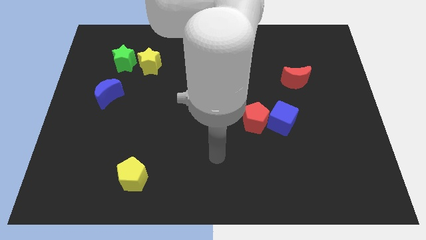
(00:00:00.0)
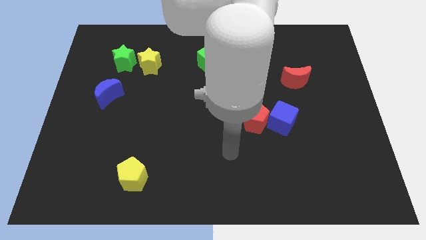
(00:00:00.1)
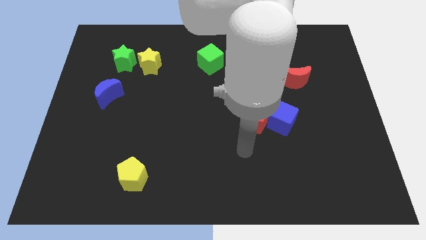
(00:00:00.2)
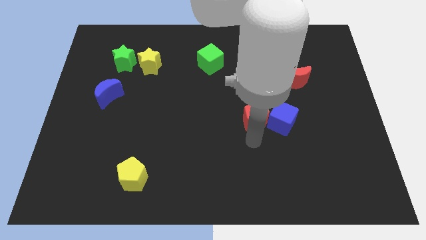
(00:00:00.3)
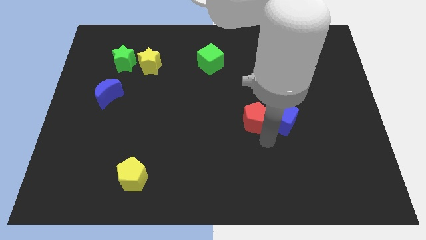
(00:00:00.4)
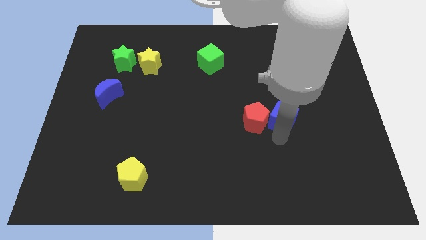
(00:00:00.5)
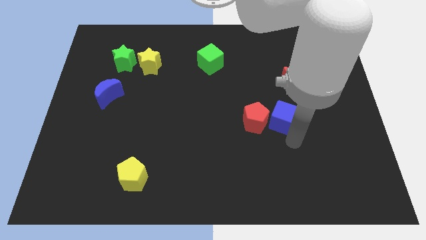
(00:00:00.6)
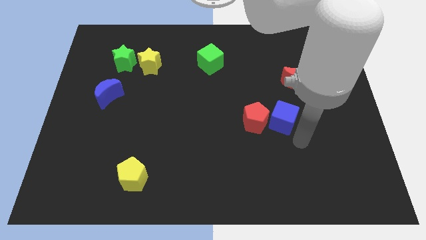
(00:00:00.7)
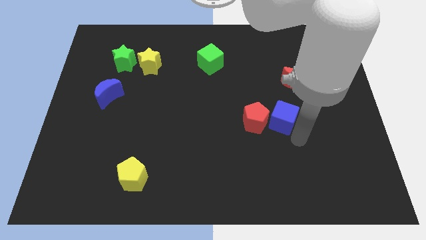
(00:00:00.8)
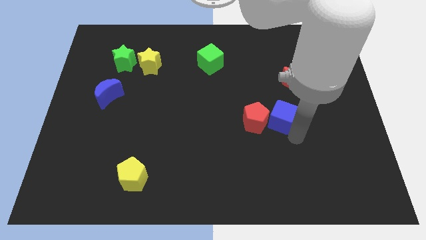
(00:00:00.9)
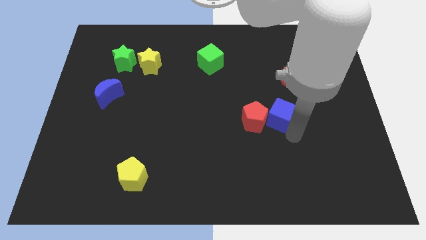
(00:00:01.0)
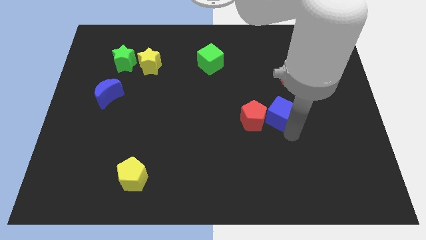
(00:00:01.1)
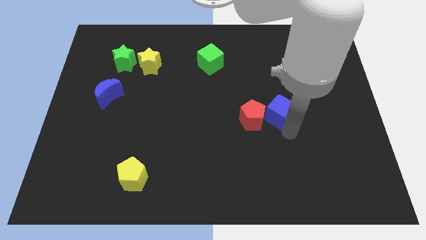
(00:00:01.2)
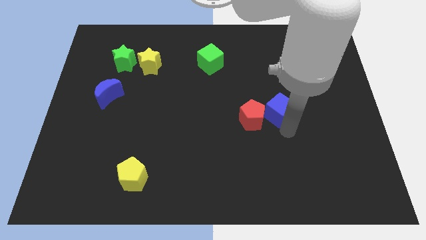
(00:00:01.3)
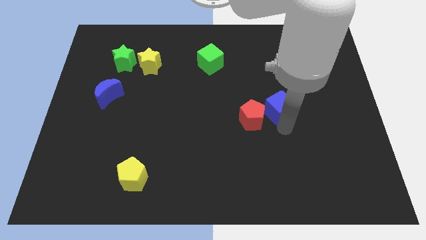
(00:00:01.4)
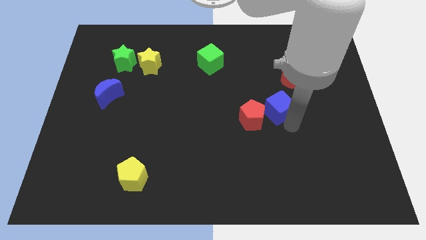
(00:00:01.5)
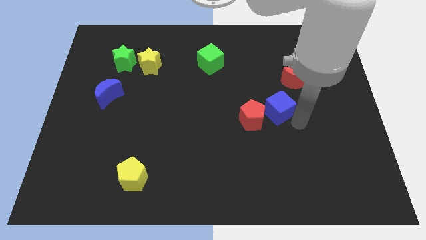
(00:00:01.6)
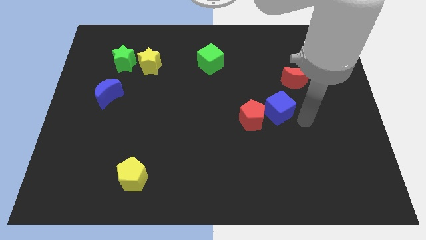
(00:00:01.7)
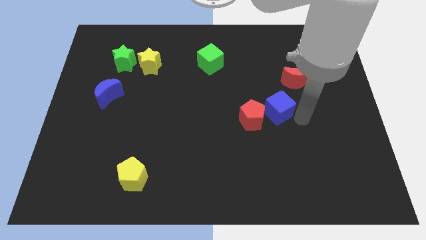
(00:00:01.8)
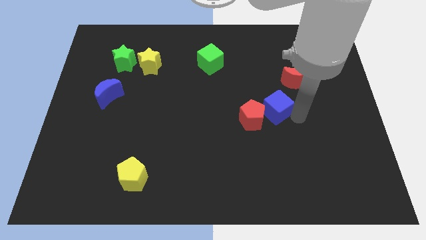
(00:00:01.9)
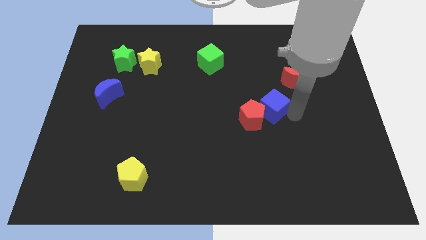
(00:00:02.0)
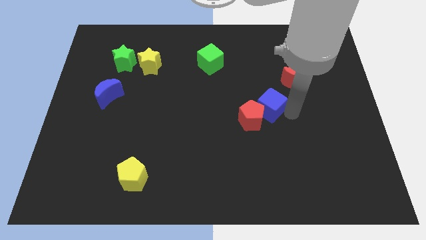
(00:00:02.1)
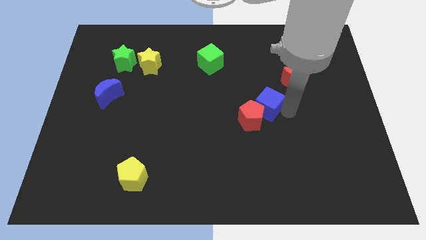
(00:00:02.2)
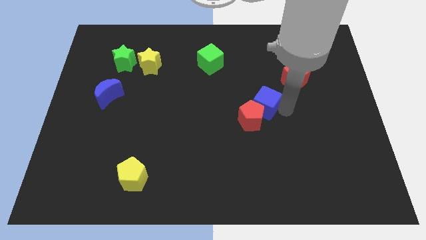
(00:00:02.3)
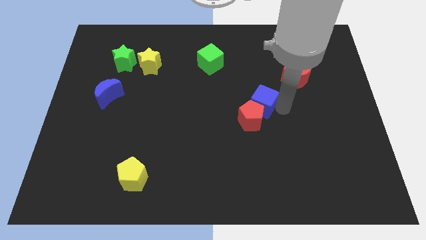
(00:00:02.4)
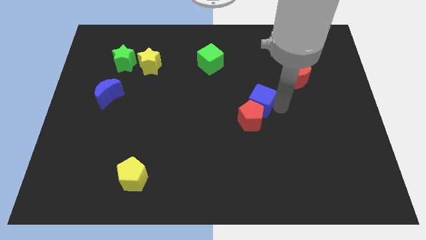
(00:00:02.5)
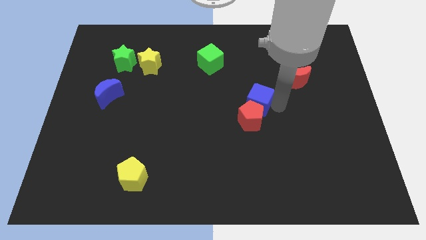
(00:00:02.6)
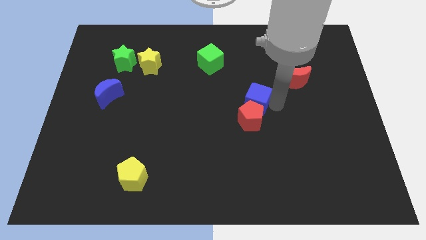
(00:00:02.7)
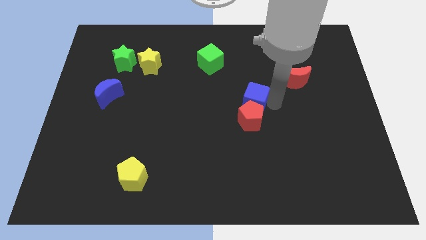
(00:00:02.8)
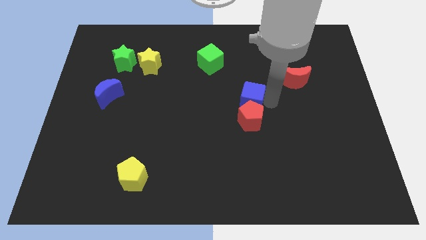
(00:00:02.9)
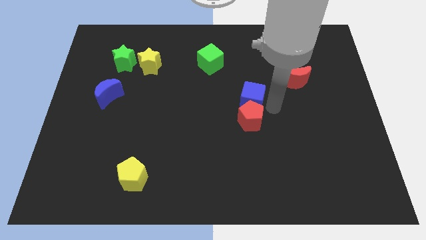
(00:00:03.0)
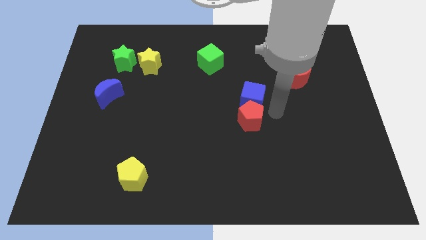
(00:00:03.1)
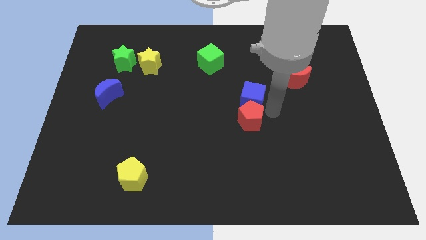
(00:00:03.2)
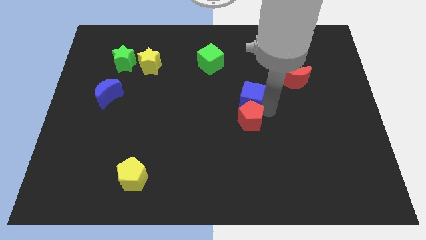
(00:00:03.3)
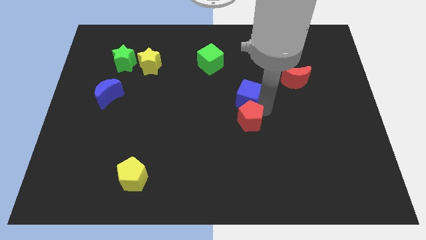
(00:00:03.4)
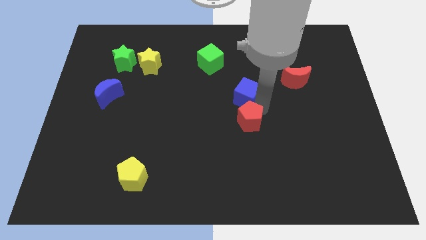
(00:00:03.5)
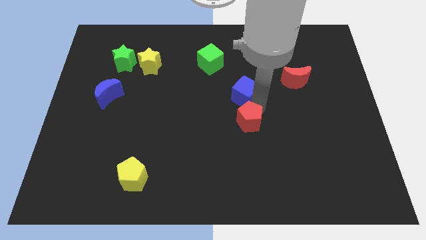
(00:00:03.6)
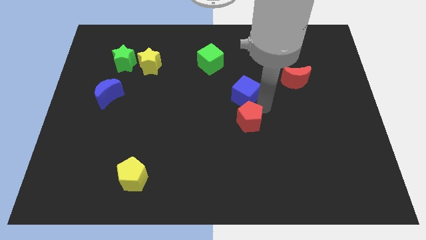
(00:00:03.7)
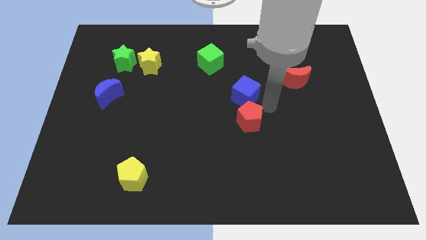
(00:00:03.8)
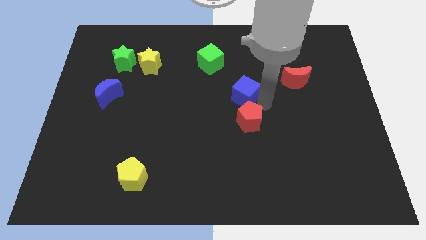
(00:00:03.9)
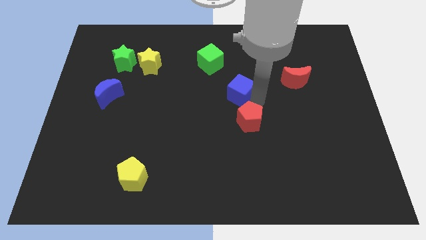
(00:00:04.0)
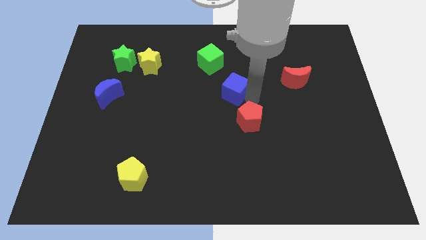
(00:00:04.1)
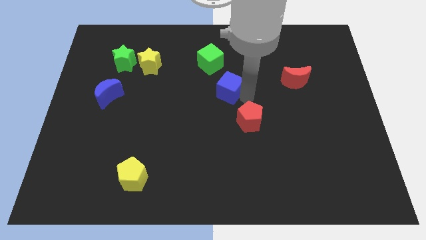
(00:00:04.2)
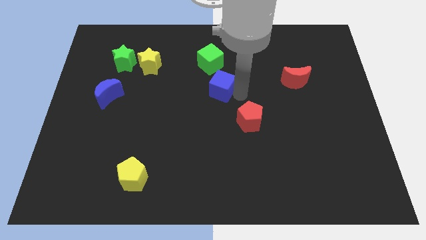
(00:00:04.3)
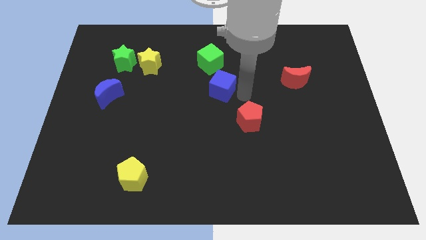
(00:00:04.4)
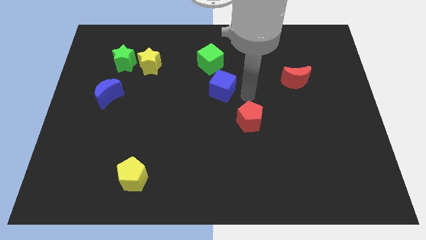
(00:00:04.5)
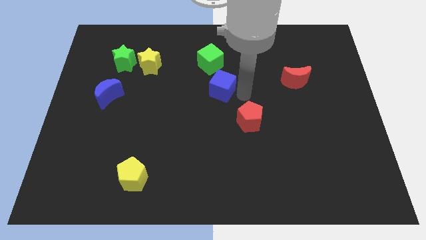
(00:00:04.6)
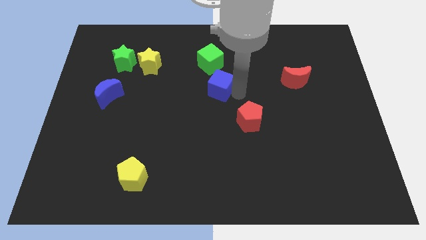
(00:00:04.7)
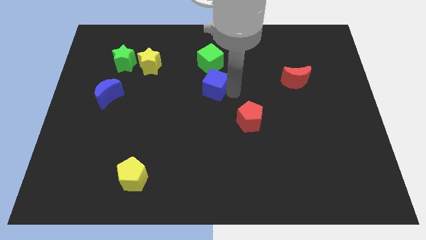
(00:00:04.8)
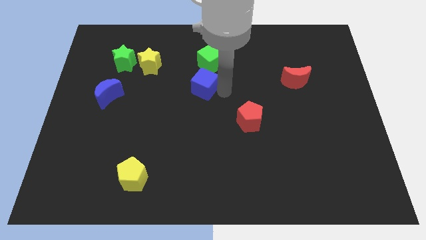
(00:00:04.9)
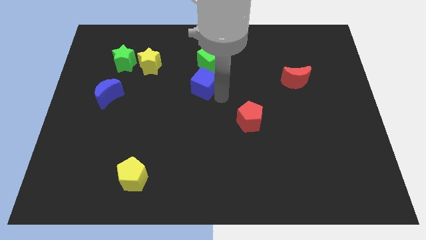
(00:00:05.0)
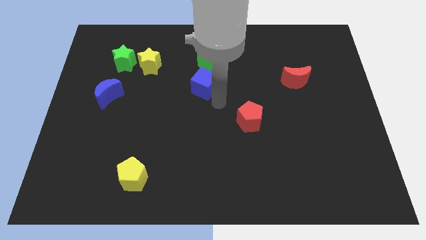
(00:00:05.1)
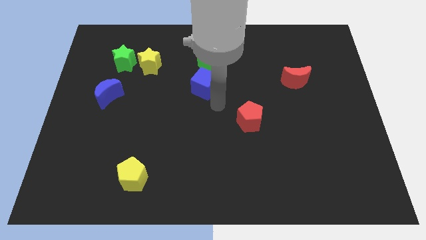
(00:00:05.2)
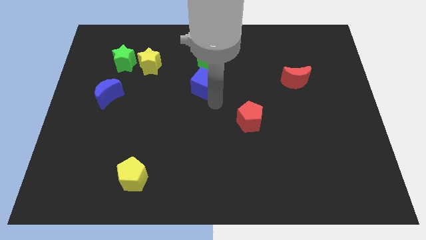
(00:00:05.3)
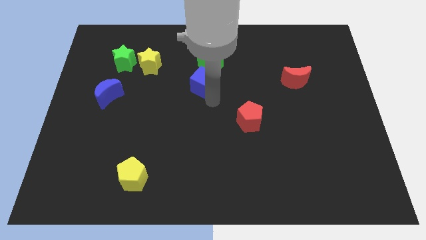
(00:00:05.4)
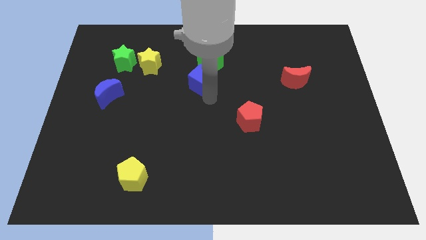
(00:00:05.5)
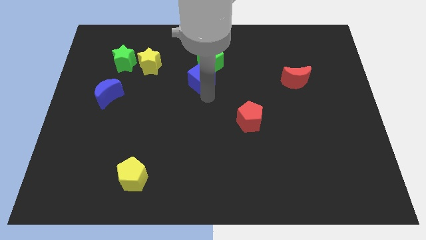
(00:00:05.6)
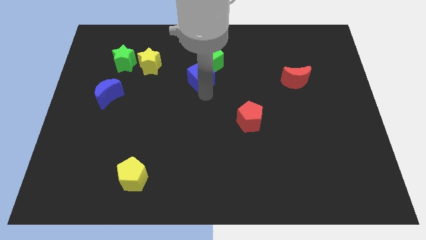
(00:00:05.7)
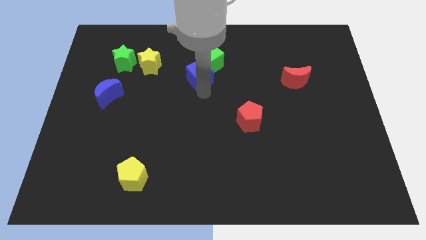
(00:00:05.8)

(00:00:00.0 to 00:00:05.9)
move the blue cube just right of the yellow star

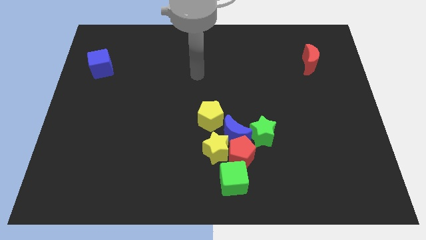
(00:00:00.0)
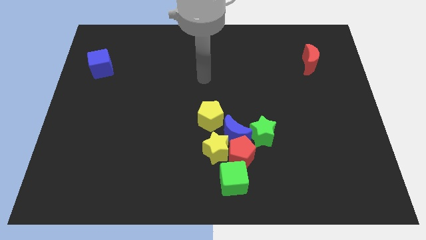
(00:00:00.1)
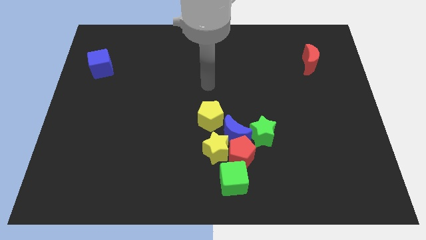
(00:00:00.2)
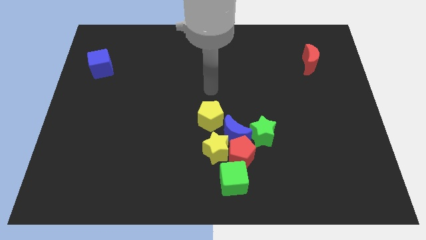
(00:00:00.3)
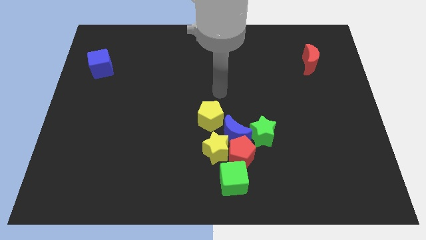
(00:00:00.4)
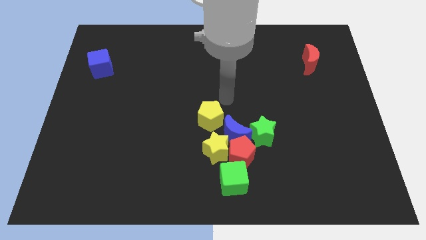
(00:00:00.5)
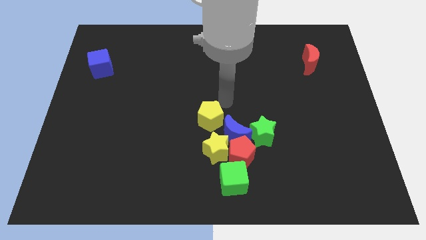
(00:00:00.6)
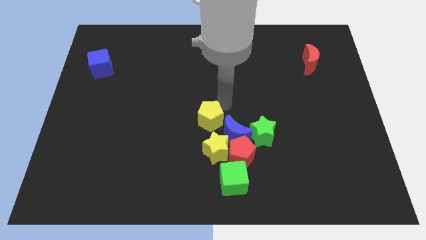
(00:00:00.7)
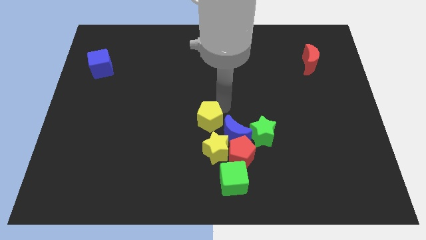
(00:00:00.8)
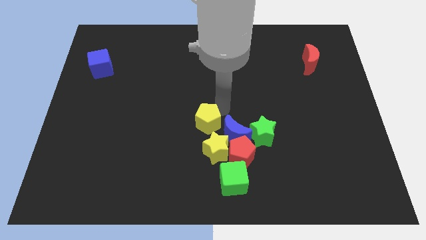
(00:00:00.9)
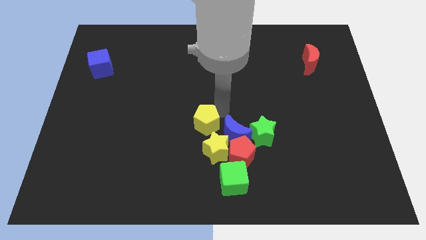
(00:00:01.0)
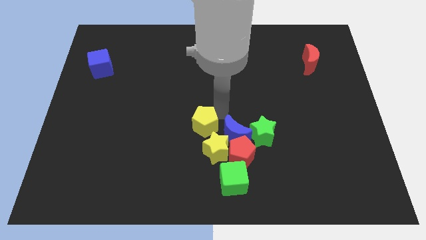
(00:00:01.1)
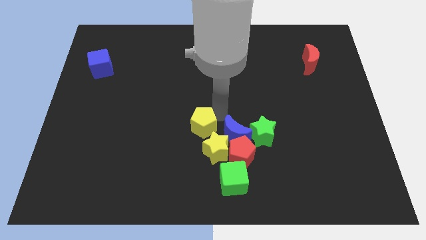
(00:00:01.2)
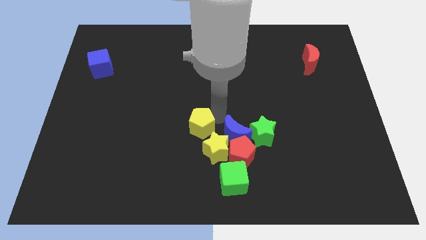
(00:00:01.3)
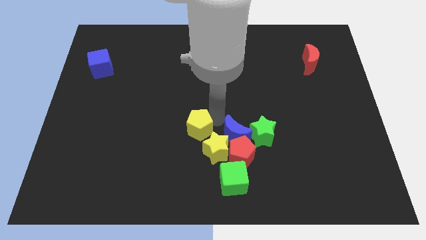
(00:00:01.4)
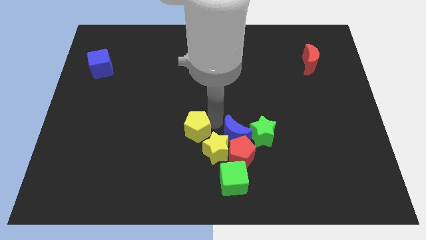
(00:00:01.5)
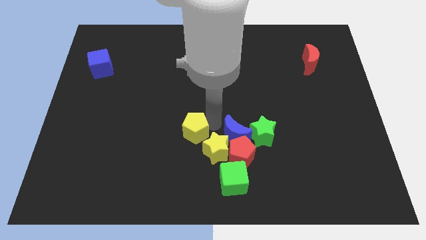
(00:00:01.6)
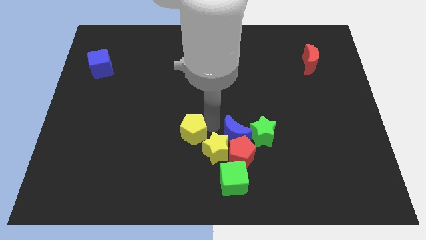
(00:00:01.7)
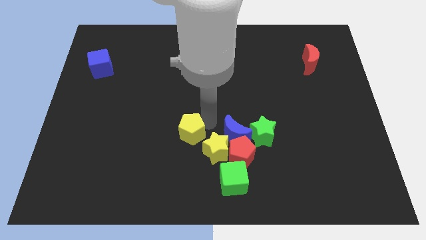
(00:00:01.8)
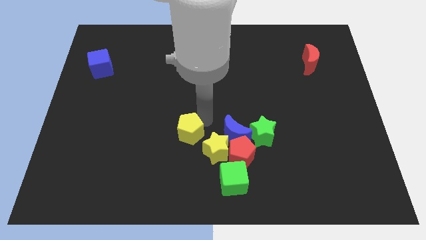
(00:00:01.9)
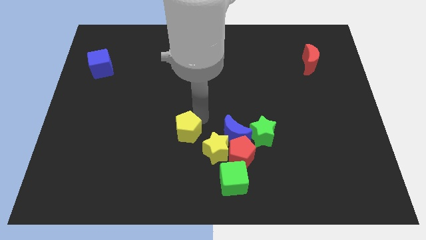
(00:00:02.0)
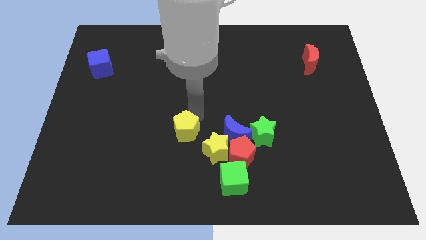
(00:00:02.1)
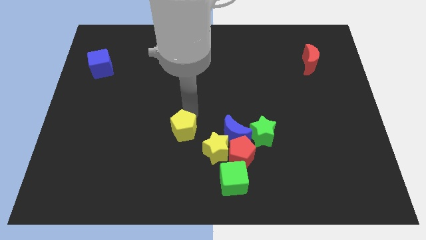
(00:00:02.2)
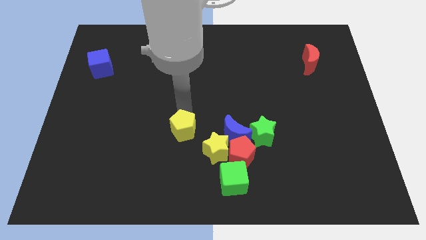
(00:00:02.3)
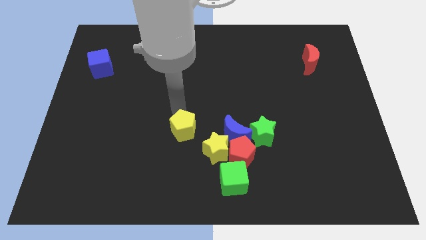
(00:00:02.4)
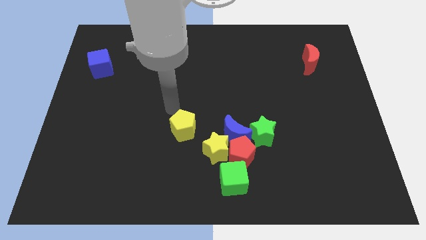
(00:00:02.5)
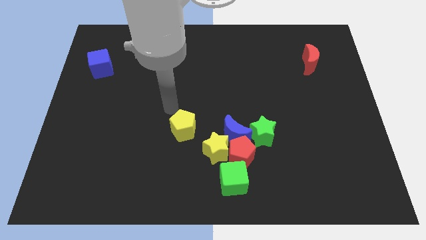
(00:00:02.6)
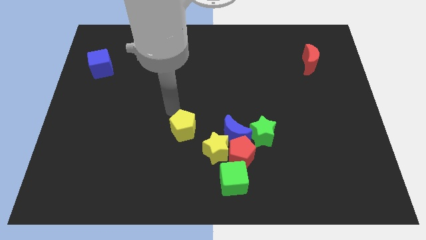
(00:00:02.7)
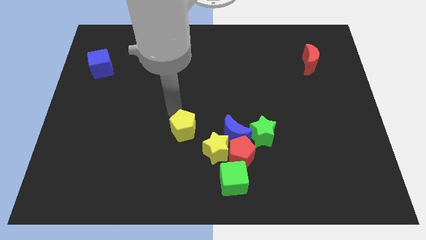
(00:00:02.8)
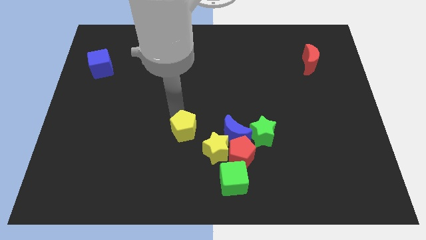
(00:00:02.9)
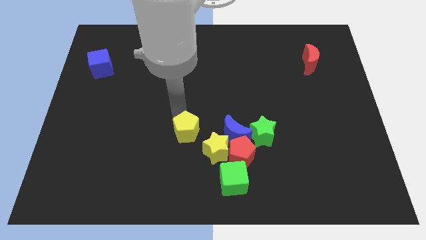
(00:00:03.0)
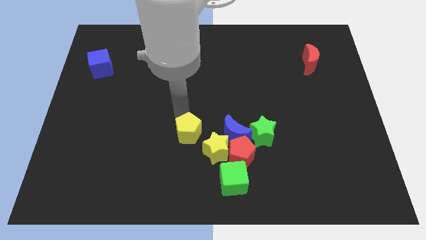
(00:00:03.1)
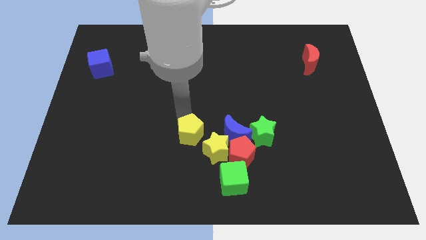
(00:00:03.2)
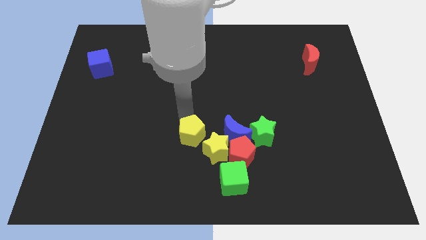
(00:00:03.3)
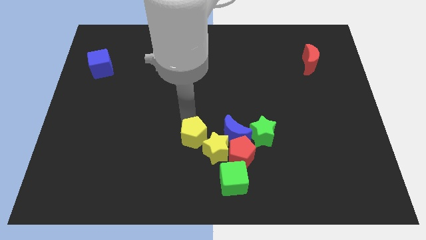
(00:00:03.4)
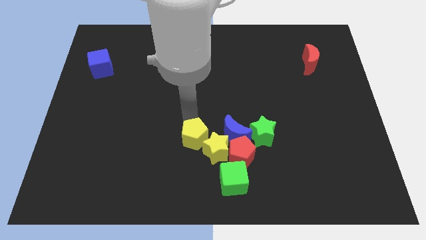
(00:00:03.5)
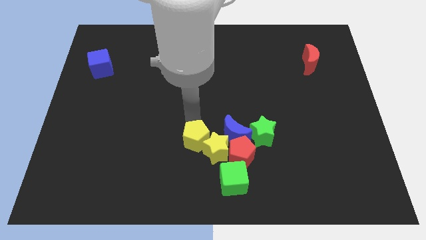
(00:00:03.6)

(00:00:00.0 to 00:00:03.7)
move the yellow pentagon to the top left side of the green cube
